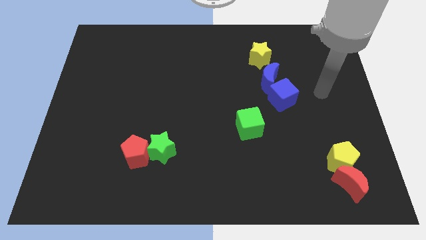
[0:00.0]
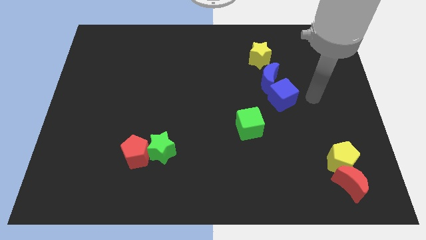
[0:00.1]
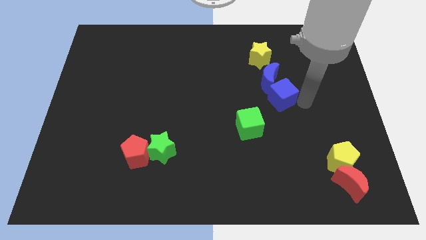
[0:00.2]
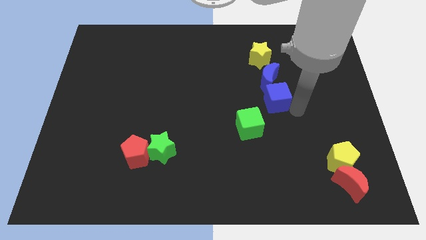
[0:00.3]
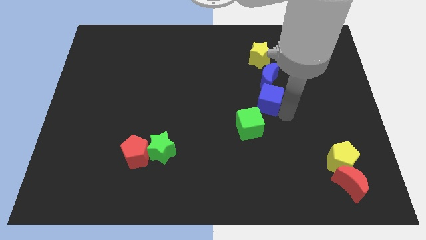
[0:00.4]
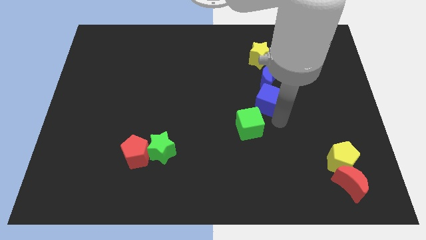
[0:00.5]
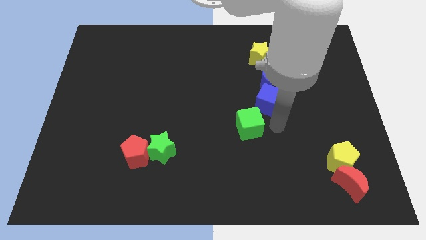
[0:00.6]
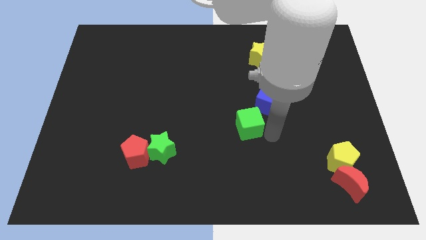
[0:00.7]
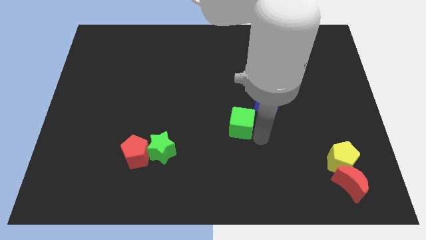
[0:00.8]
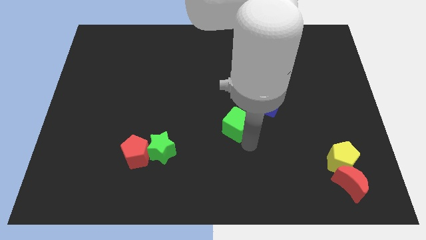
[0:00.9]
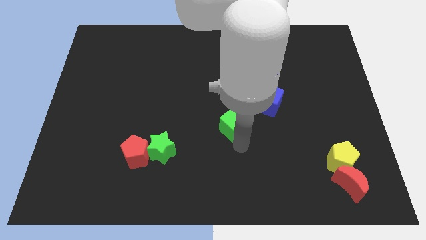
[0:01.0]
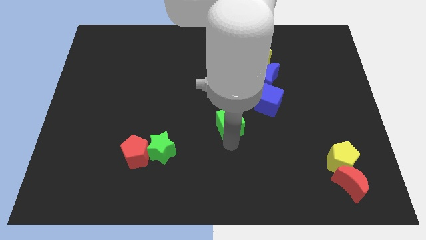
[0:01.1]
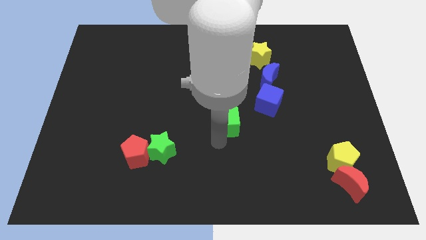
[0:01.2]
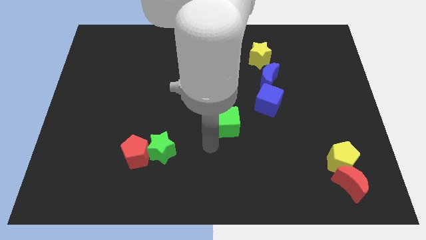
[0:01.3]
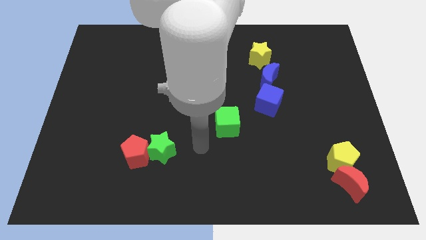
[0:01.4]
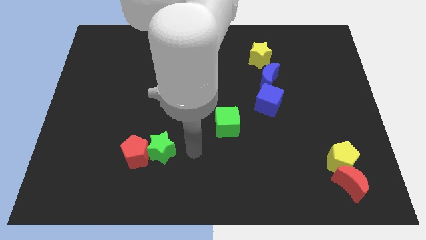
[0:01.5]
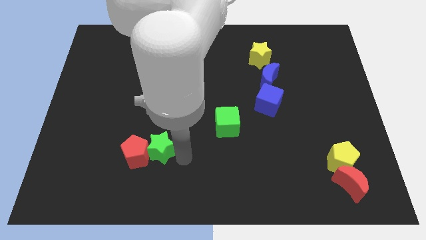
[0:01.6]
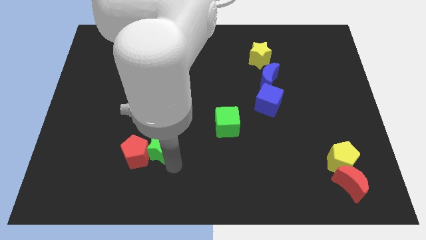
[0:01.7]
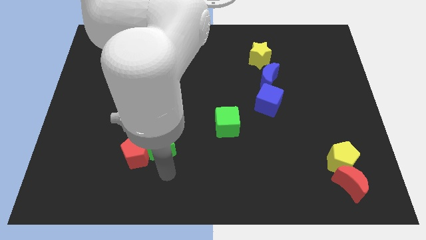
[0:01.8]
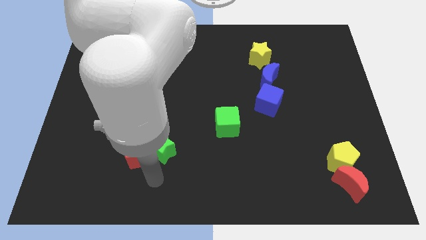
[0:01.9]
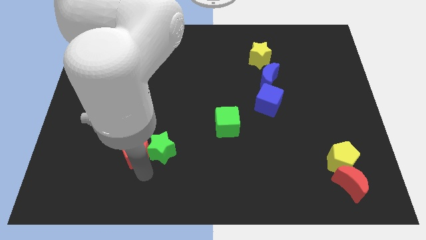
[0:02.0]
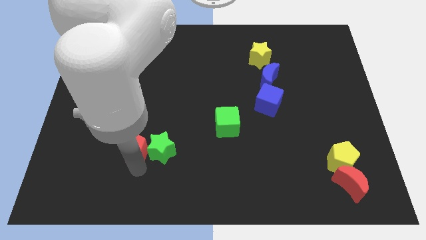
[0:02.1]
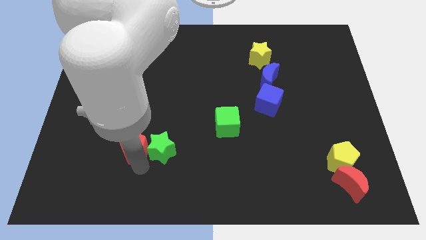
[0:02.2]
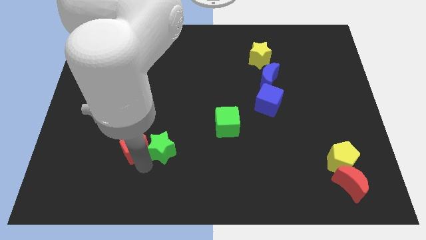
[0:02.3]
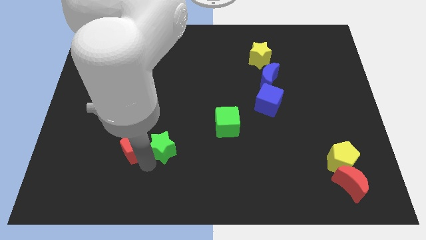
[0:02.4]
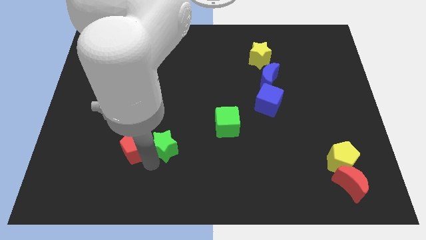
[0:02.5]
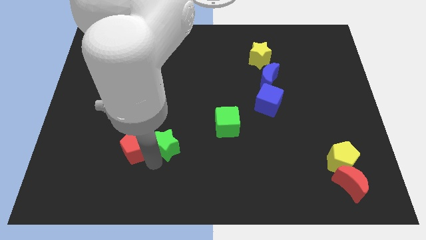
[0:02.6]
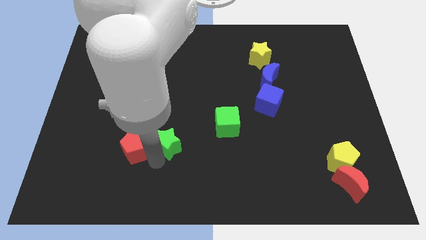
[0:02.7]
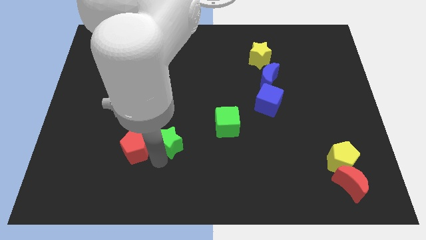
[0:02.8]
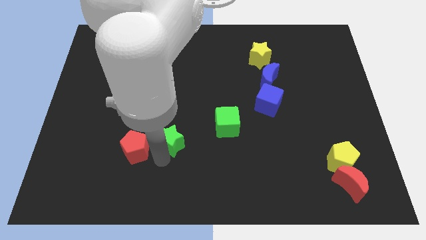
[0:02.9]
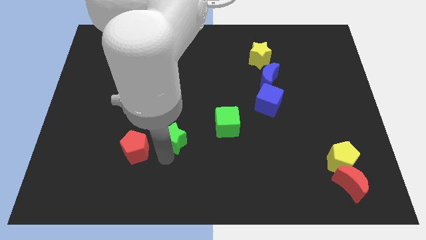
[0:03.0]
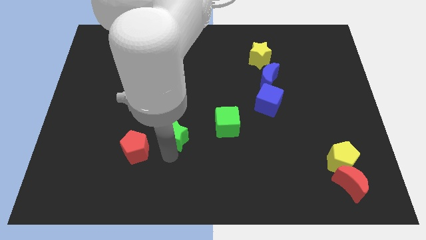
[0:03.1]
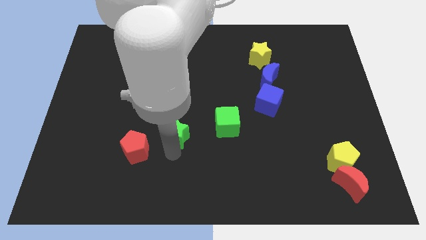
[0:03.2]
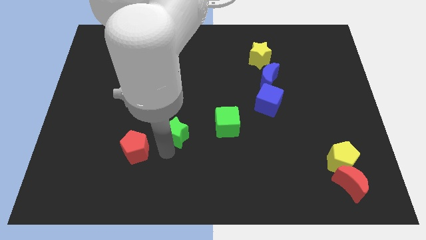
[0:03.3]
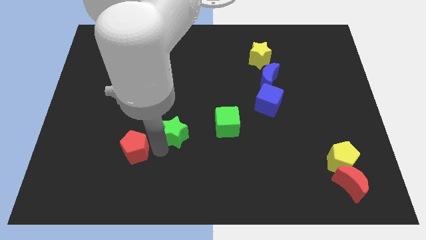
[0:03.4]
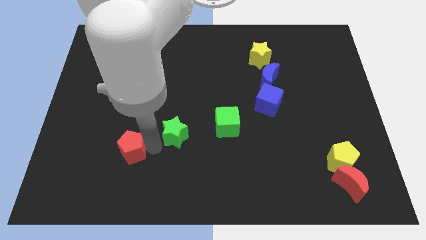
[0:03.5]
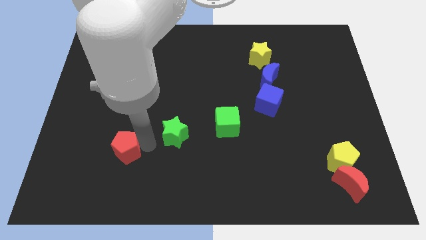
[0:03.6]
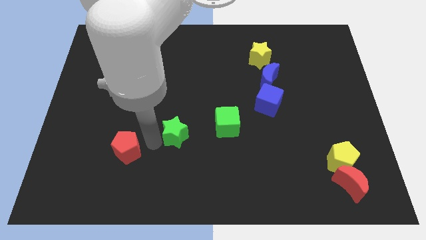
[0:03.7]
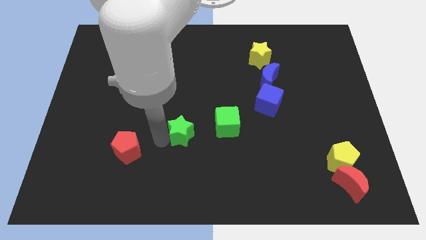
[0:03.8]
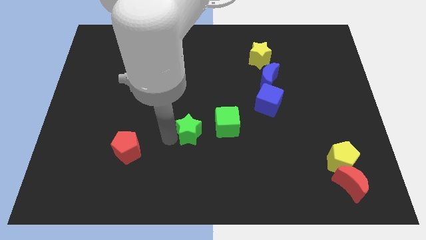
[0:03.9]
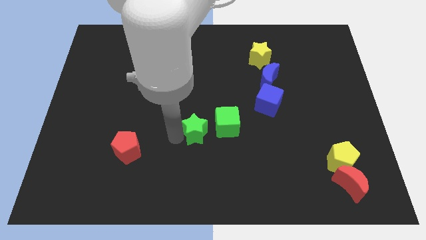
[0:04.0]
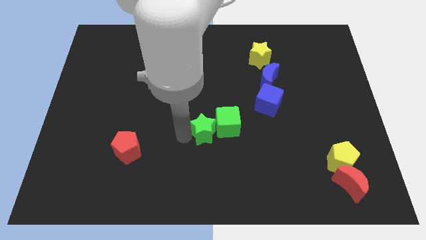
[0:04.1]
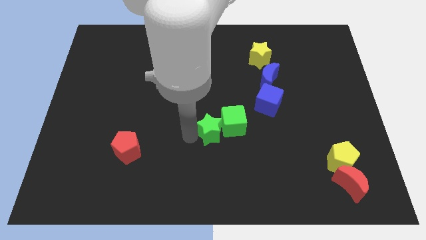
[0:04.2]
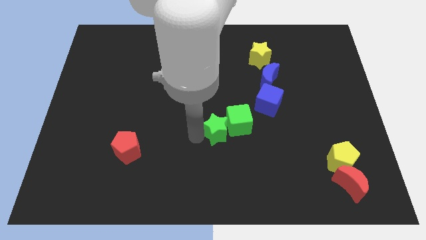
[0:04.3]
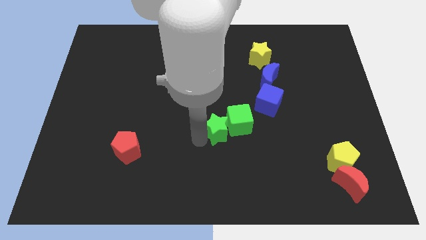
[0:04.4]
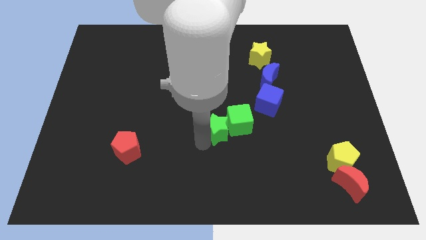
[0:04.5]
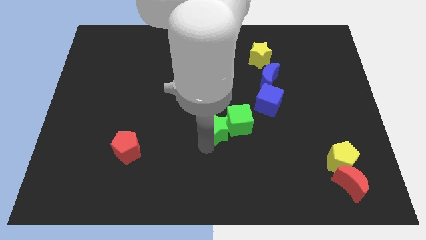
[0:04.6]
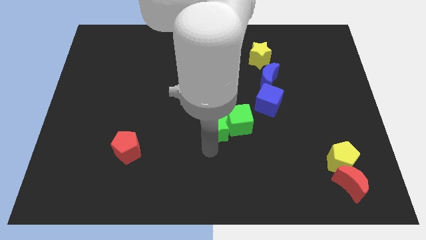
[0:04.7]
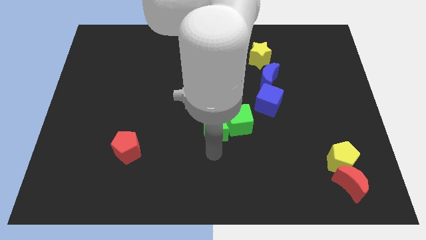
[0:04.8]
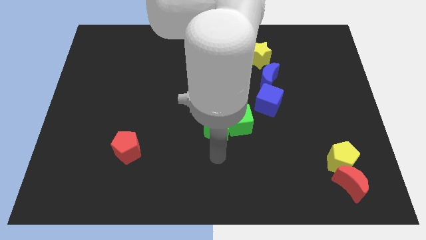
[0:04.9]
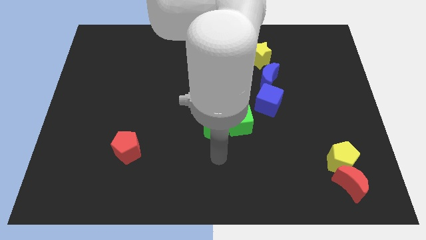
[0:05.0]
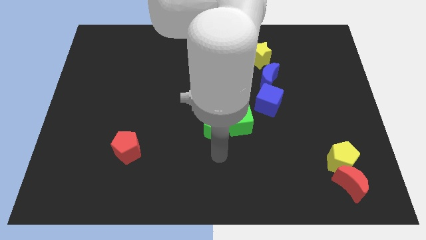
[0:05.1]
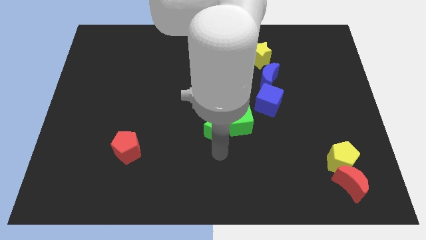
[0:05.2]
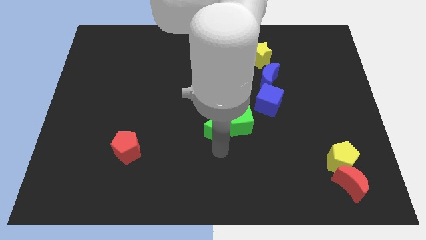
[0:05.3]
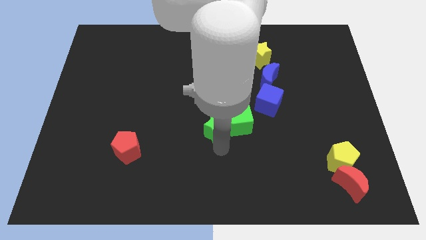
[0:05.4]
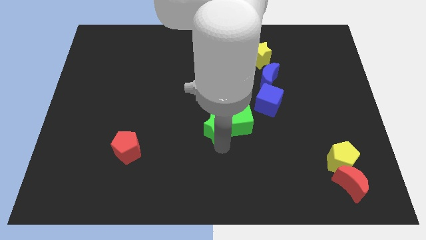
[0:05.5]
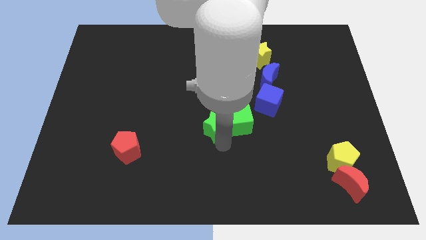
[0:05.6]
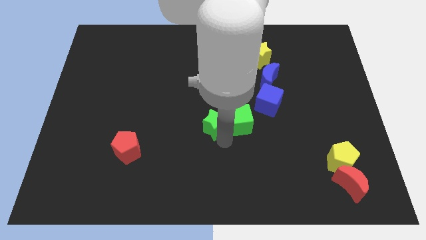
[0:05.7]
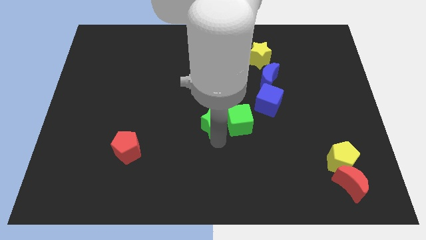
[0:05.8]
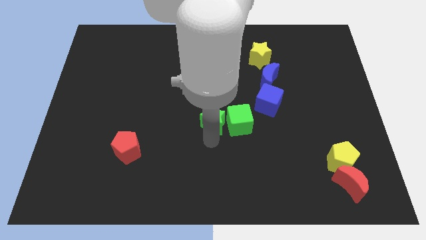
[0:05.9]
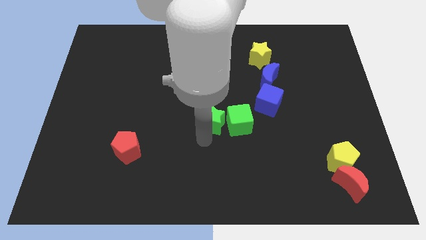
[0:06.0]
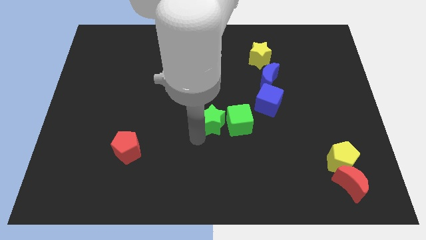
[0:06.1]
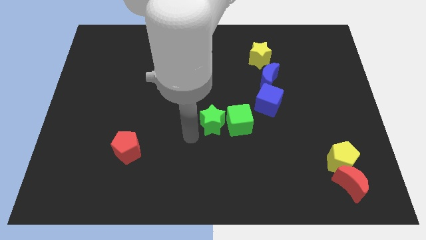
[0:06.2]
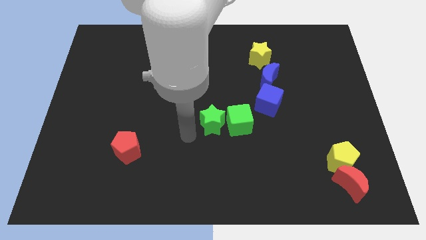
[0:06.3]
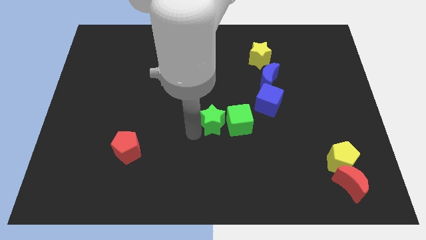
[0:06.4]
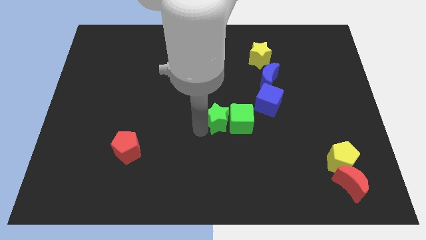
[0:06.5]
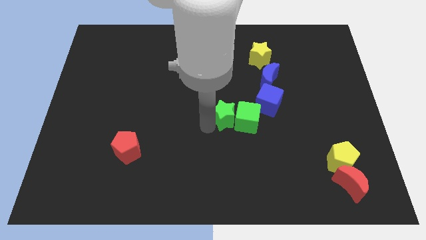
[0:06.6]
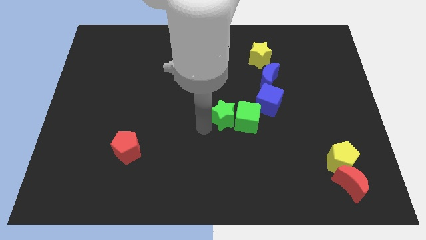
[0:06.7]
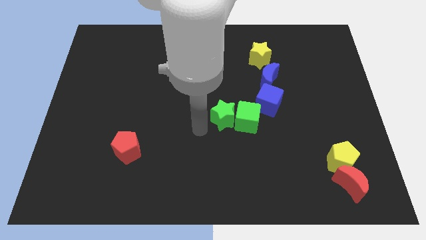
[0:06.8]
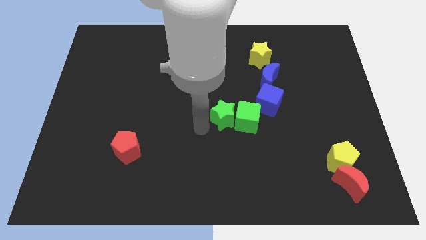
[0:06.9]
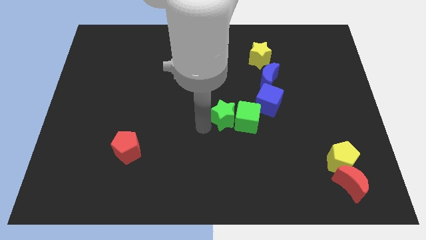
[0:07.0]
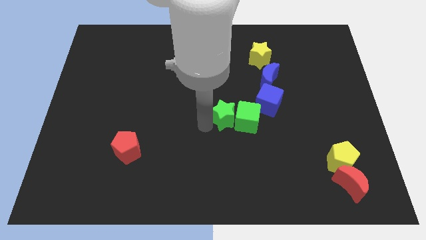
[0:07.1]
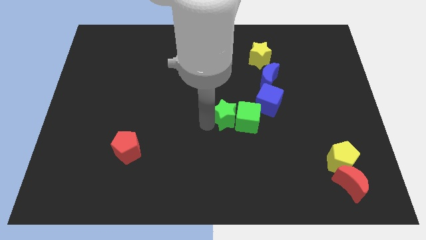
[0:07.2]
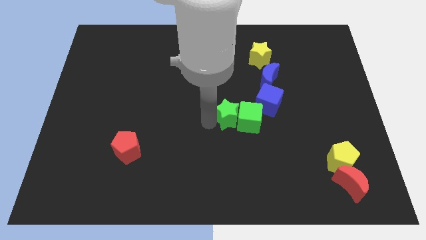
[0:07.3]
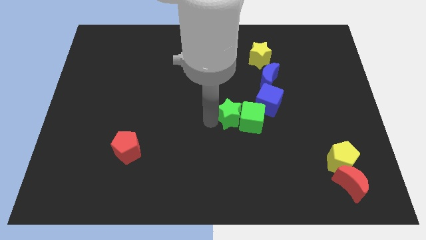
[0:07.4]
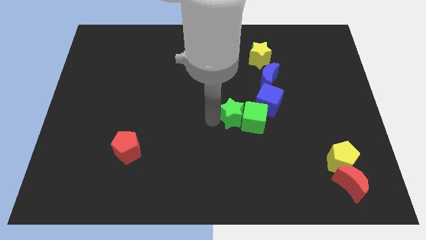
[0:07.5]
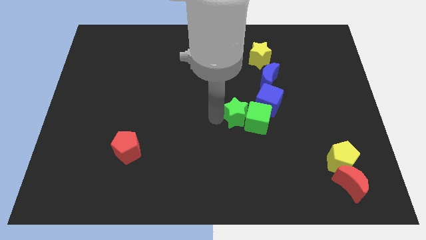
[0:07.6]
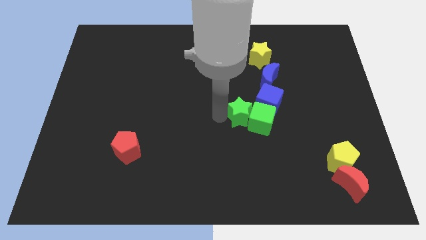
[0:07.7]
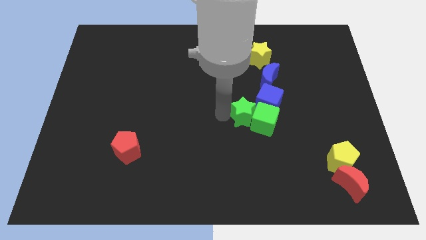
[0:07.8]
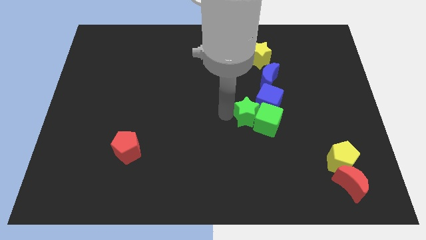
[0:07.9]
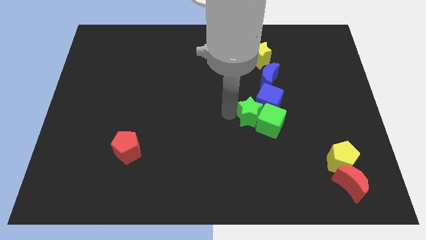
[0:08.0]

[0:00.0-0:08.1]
put the green star towards the blue cube
